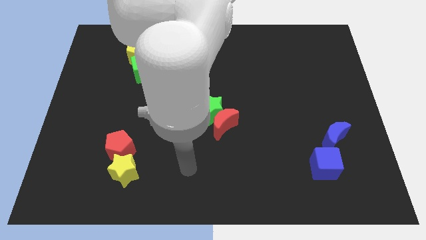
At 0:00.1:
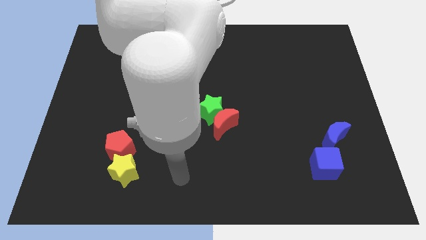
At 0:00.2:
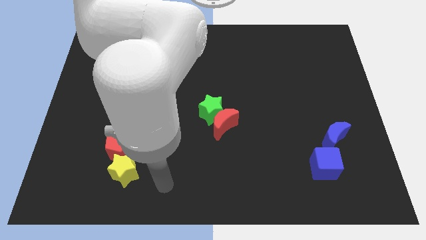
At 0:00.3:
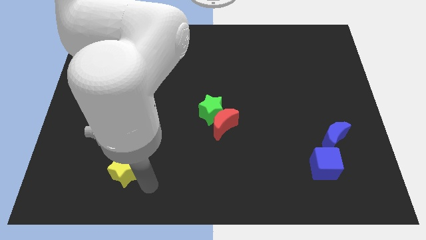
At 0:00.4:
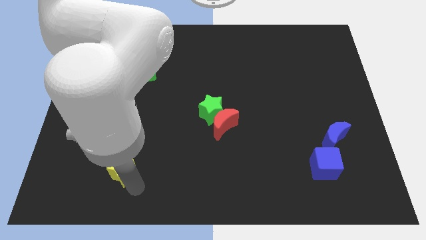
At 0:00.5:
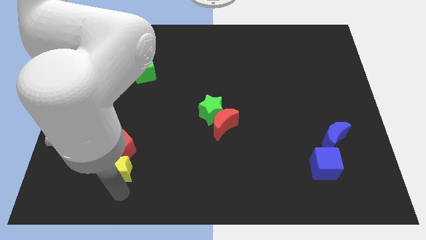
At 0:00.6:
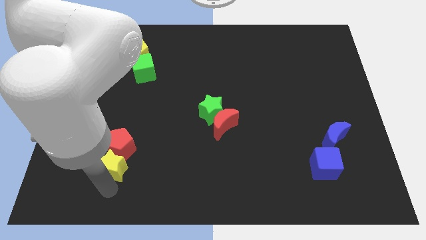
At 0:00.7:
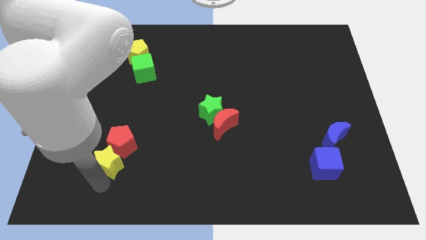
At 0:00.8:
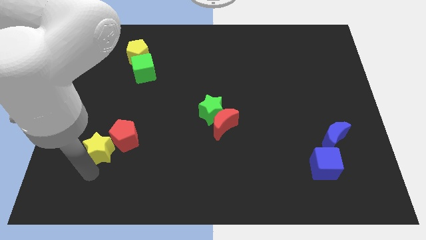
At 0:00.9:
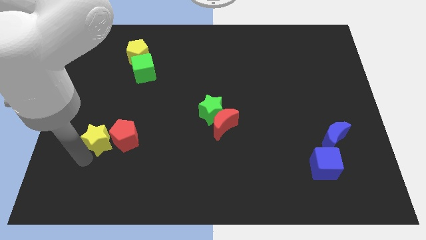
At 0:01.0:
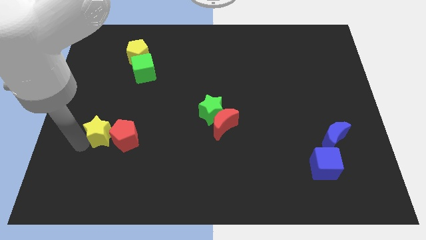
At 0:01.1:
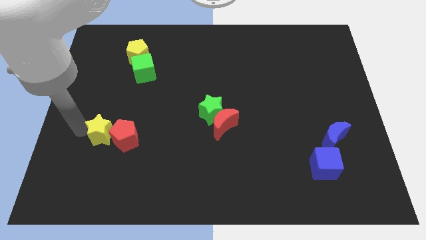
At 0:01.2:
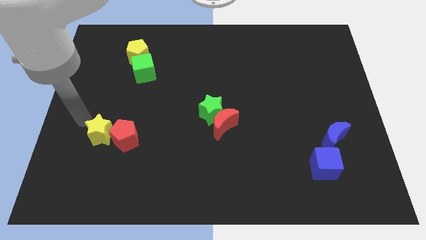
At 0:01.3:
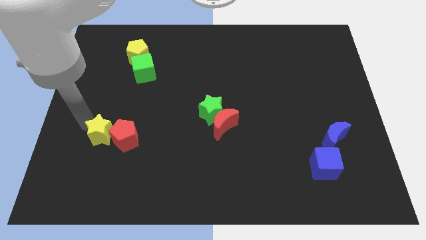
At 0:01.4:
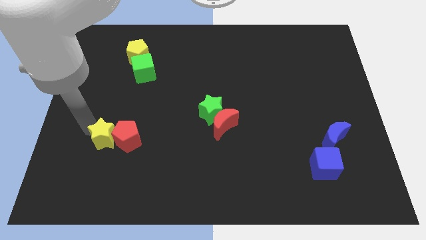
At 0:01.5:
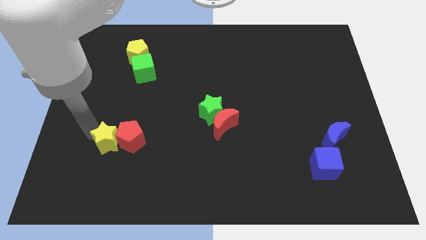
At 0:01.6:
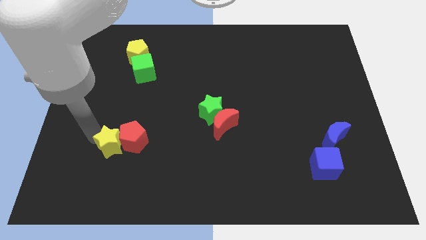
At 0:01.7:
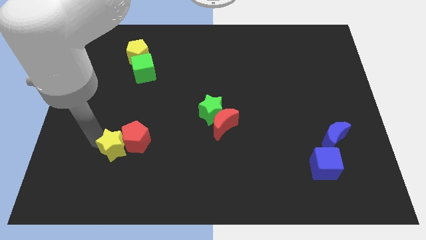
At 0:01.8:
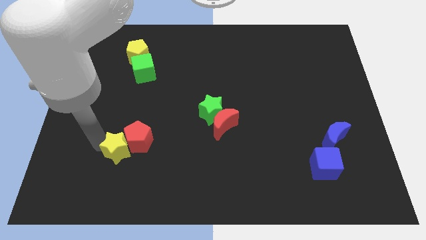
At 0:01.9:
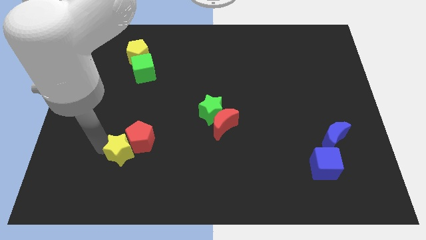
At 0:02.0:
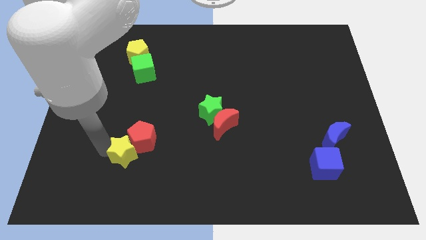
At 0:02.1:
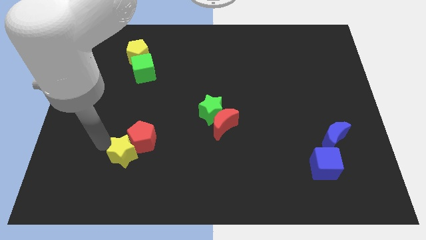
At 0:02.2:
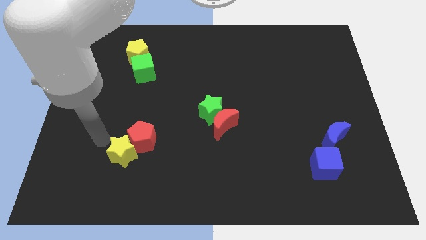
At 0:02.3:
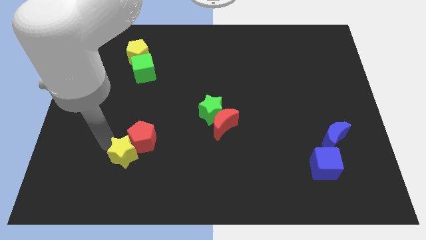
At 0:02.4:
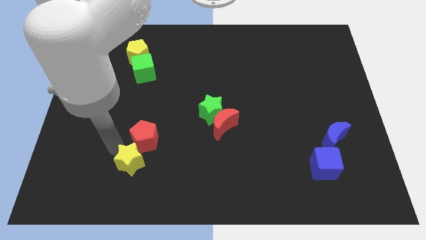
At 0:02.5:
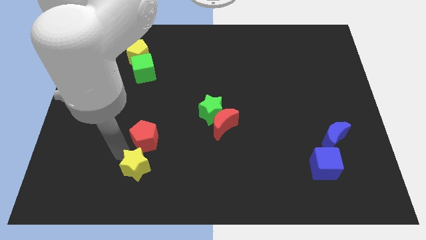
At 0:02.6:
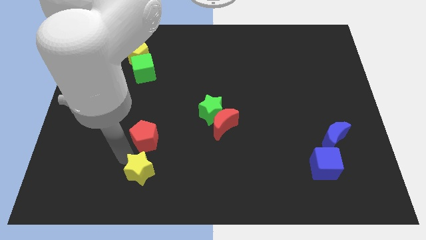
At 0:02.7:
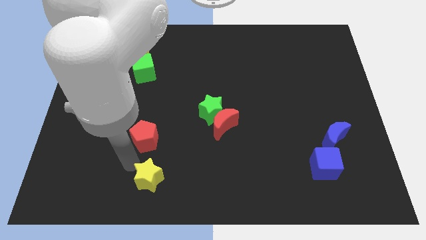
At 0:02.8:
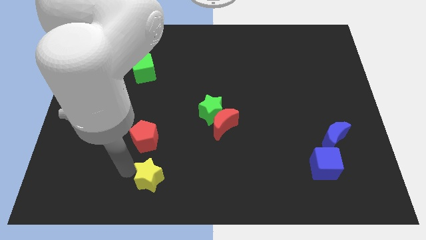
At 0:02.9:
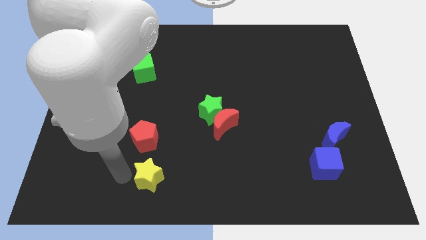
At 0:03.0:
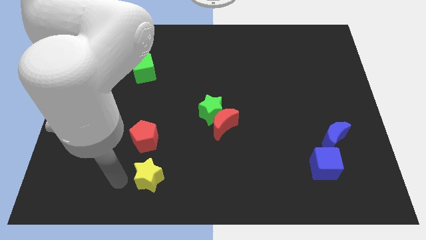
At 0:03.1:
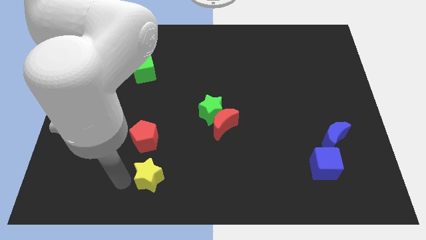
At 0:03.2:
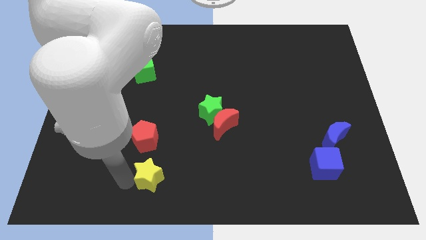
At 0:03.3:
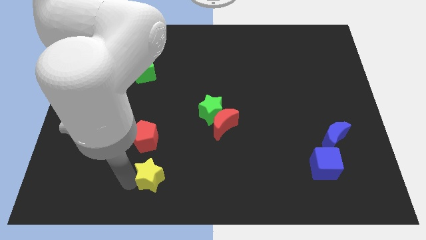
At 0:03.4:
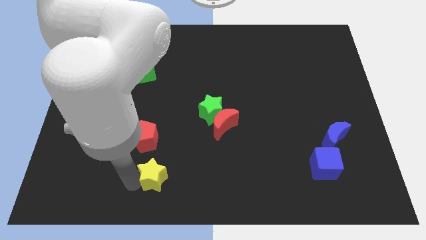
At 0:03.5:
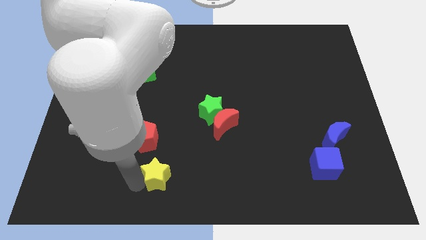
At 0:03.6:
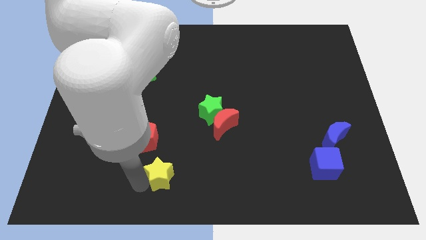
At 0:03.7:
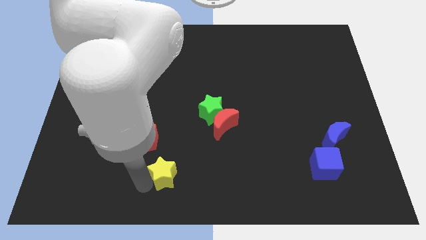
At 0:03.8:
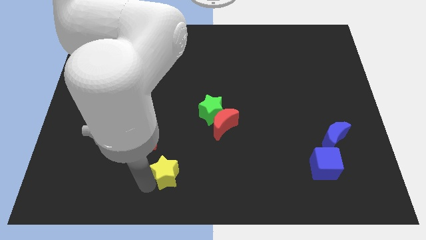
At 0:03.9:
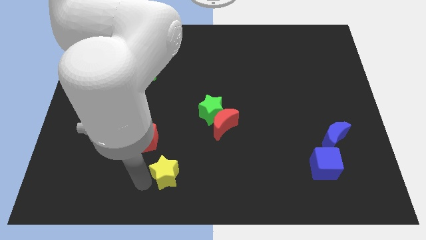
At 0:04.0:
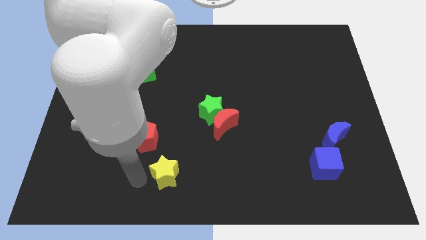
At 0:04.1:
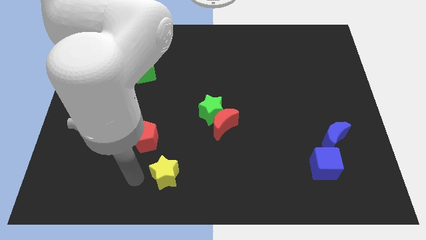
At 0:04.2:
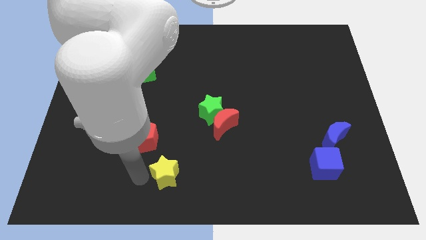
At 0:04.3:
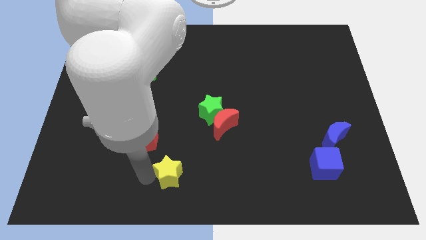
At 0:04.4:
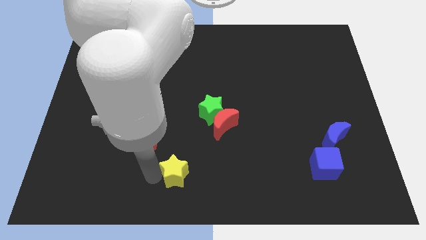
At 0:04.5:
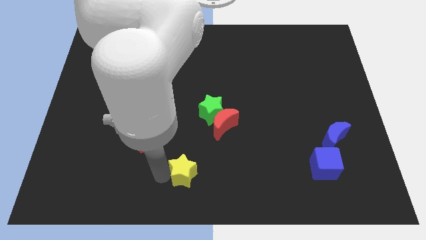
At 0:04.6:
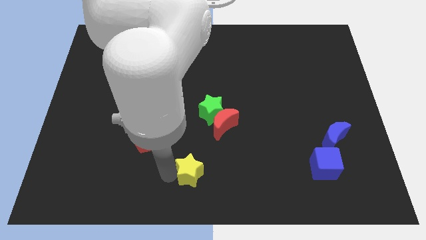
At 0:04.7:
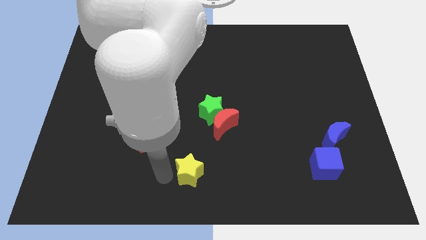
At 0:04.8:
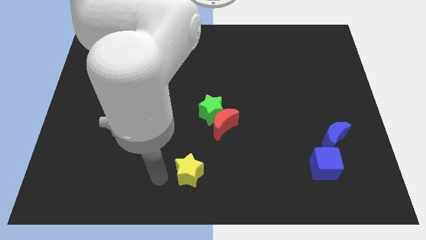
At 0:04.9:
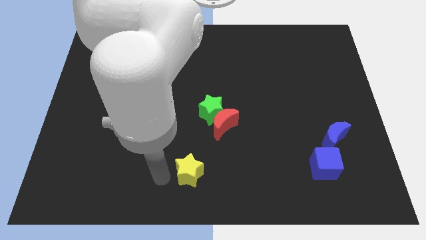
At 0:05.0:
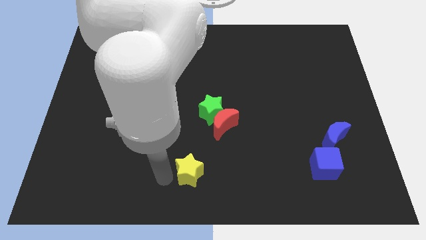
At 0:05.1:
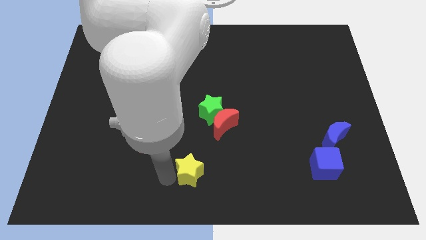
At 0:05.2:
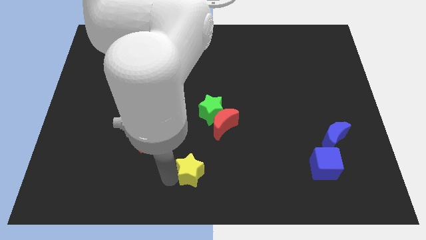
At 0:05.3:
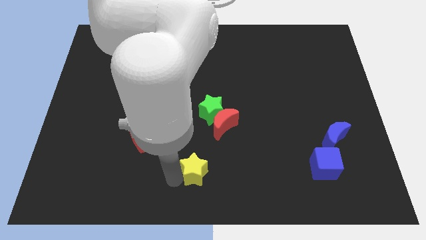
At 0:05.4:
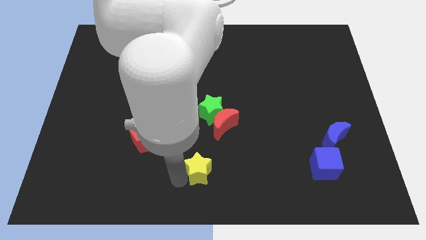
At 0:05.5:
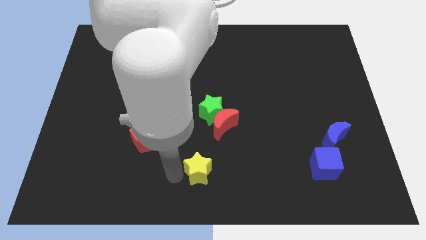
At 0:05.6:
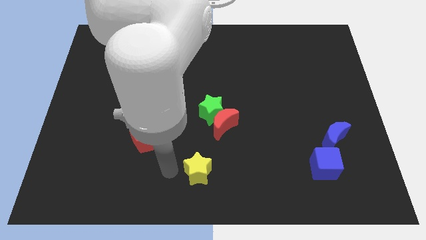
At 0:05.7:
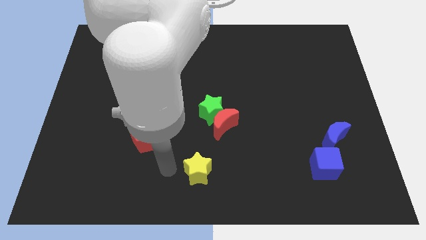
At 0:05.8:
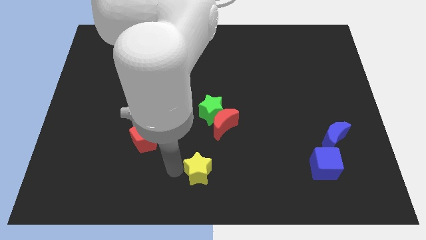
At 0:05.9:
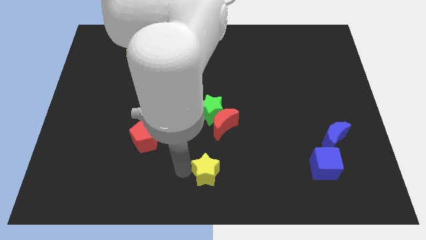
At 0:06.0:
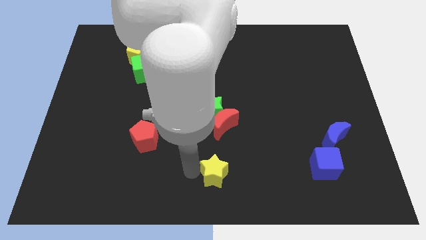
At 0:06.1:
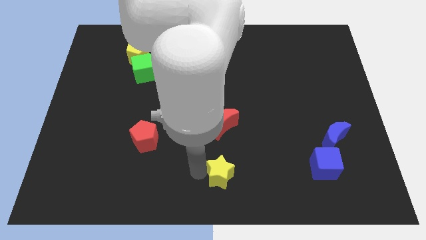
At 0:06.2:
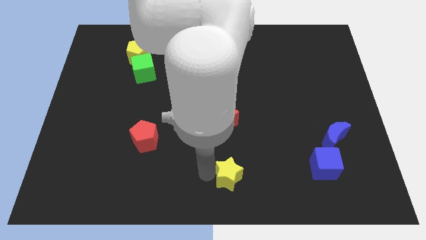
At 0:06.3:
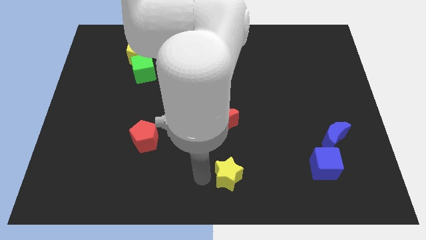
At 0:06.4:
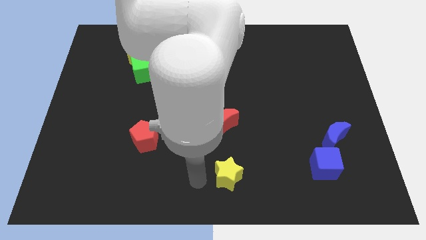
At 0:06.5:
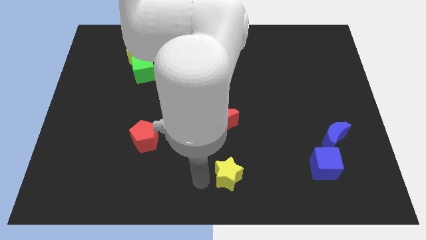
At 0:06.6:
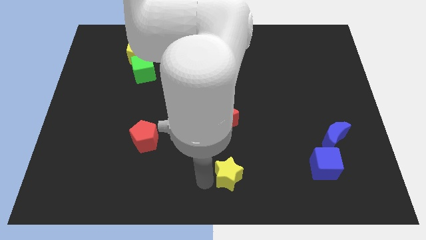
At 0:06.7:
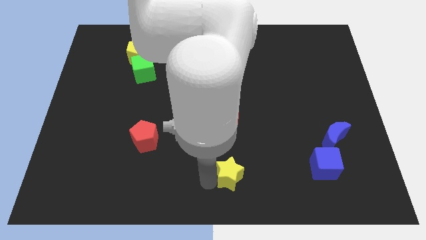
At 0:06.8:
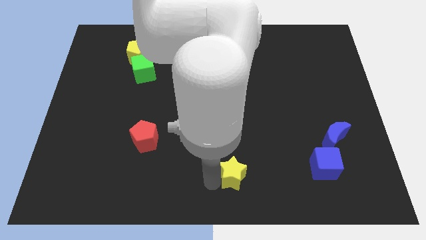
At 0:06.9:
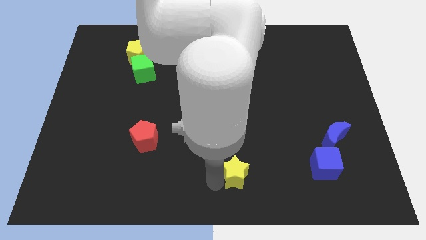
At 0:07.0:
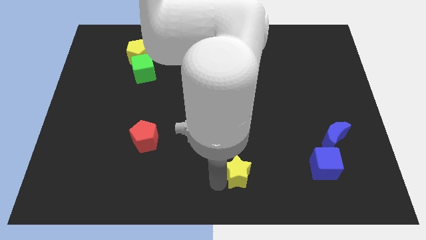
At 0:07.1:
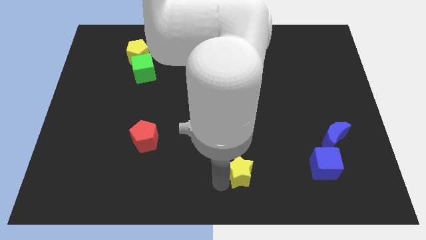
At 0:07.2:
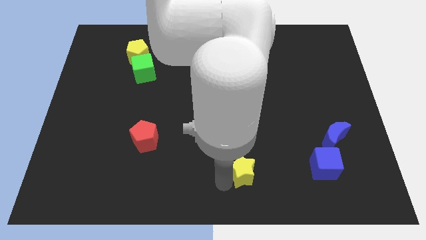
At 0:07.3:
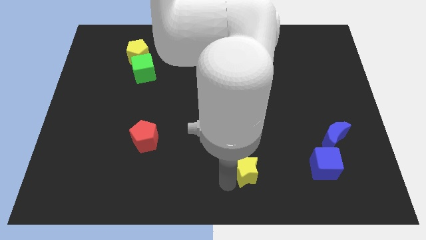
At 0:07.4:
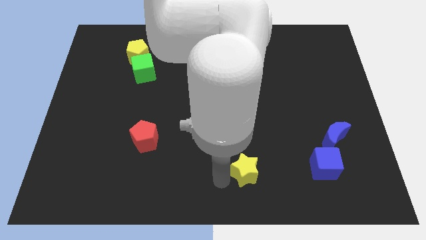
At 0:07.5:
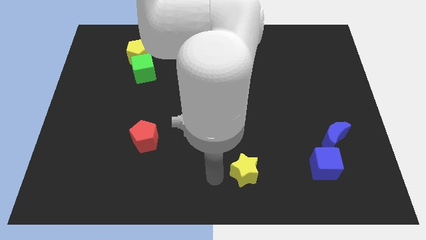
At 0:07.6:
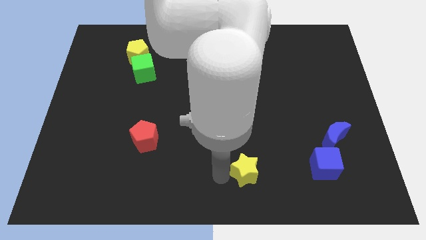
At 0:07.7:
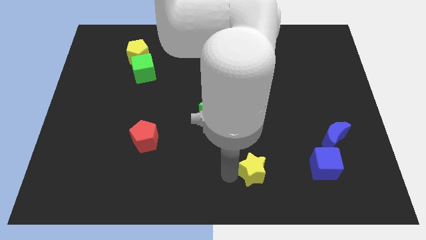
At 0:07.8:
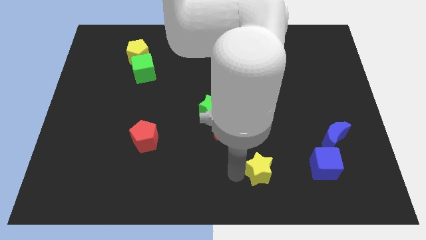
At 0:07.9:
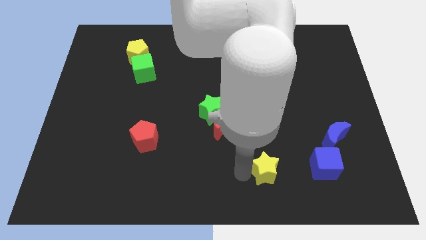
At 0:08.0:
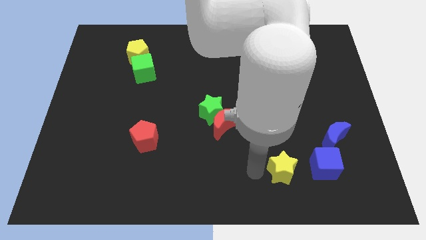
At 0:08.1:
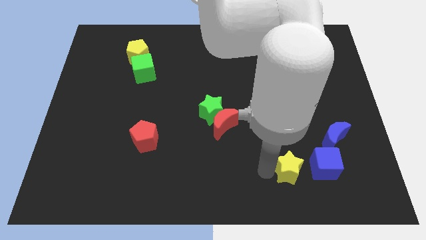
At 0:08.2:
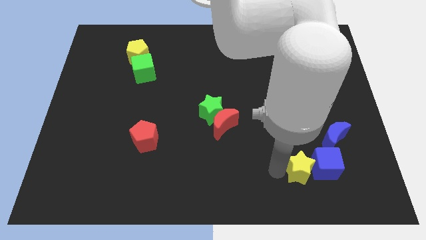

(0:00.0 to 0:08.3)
move the yellow star close to the blue cube
